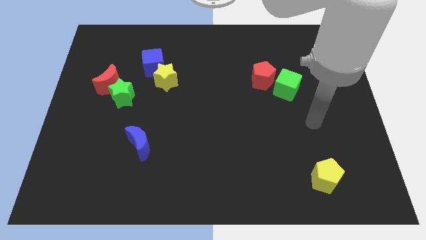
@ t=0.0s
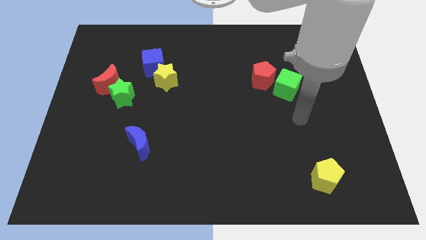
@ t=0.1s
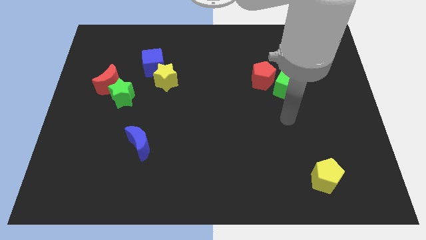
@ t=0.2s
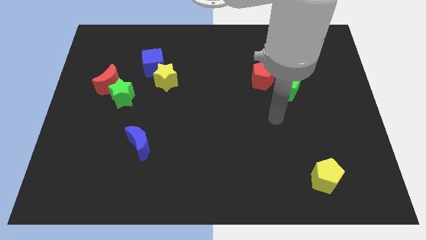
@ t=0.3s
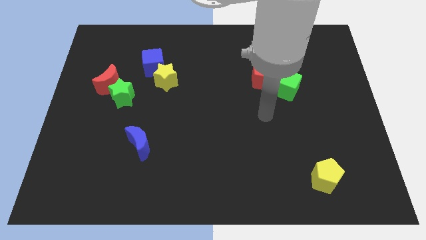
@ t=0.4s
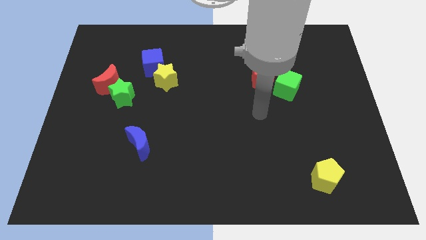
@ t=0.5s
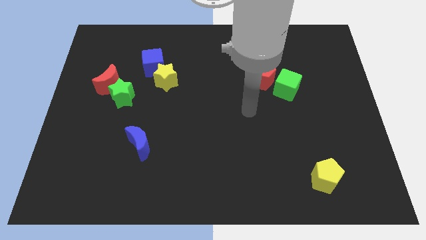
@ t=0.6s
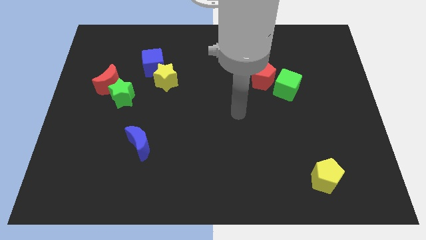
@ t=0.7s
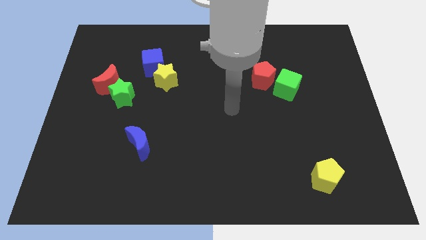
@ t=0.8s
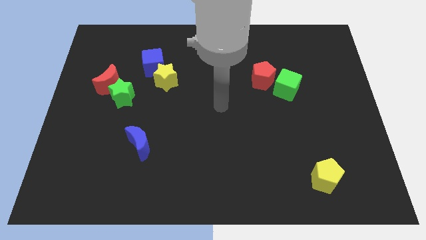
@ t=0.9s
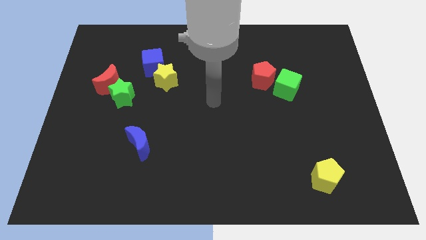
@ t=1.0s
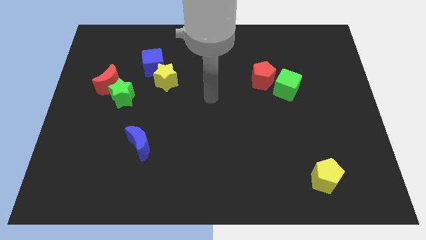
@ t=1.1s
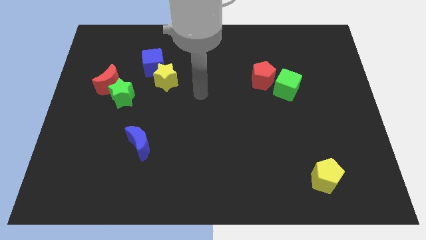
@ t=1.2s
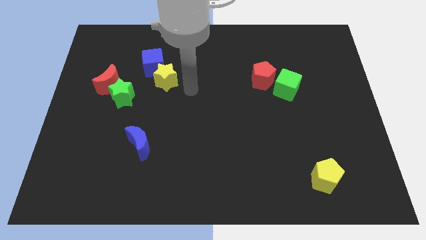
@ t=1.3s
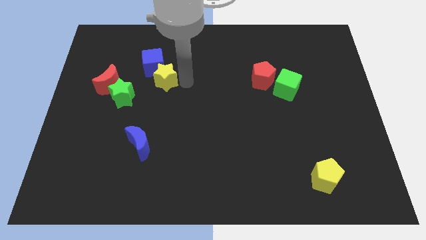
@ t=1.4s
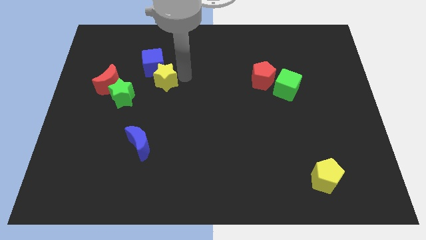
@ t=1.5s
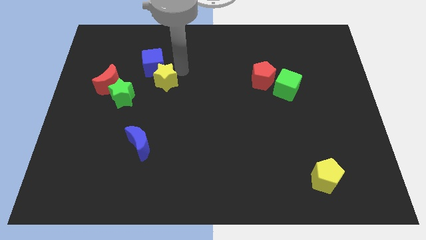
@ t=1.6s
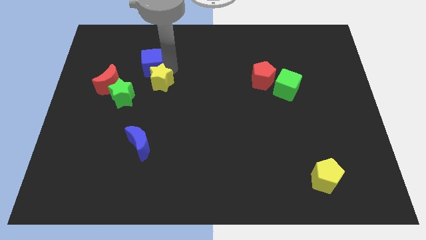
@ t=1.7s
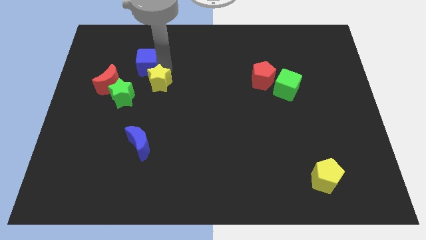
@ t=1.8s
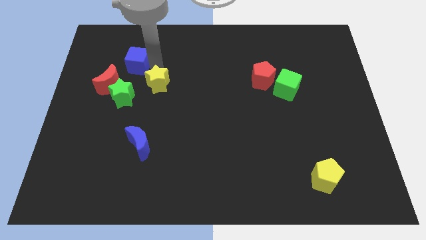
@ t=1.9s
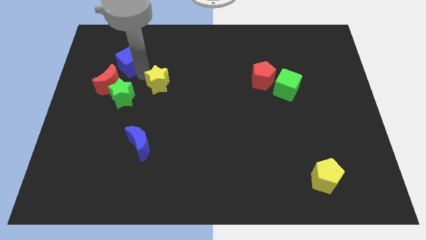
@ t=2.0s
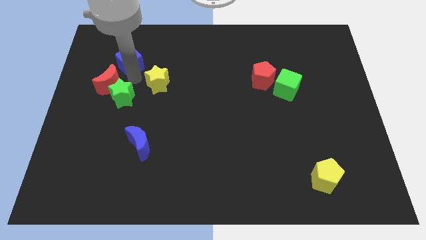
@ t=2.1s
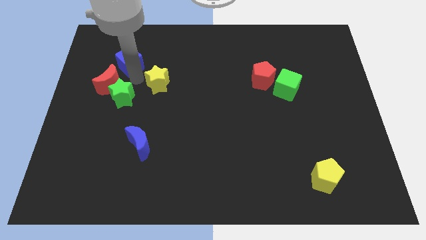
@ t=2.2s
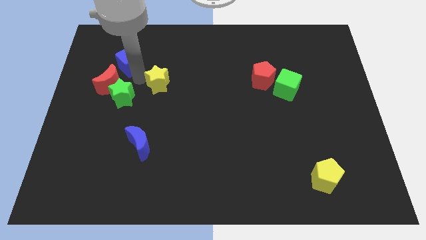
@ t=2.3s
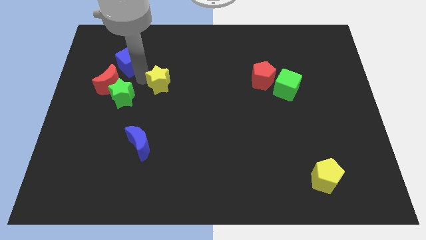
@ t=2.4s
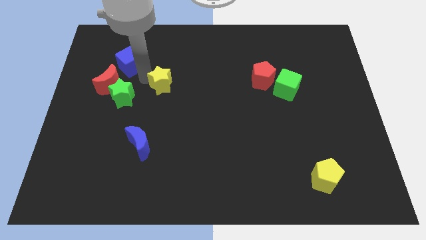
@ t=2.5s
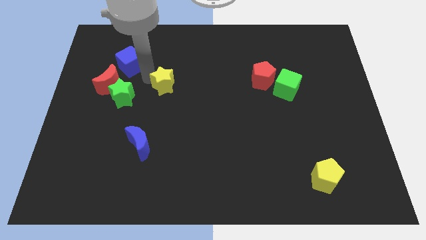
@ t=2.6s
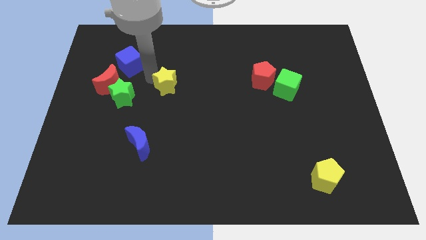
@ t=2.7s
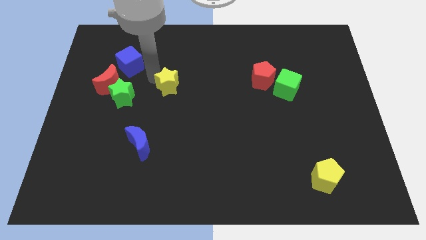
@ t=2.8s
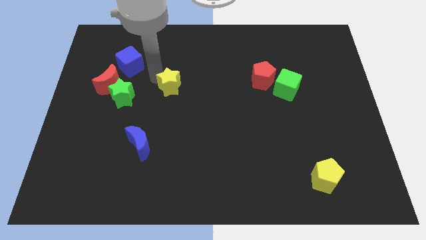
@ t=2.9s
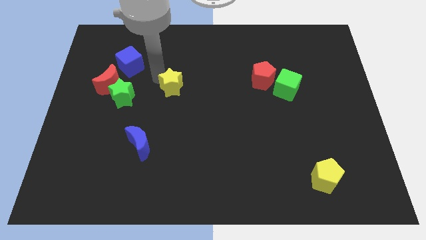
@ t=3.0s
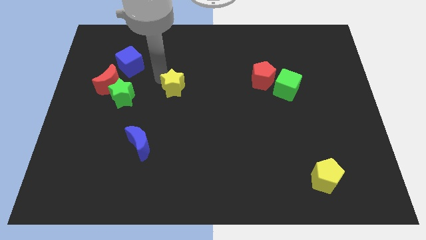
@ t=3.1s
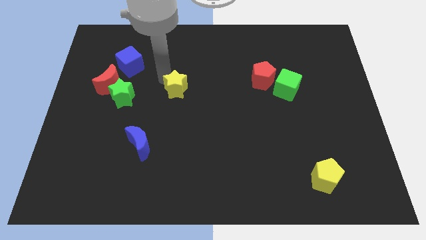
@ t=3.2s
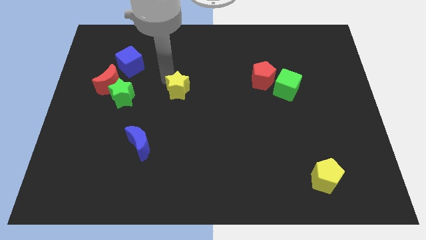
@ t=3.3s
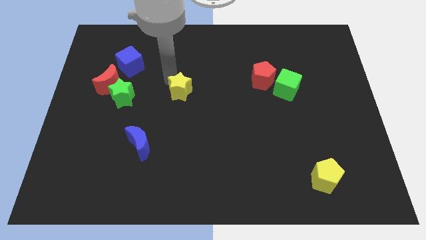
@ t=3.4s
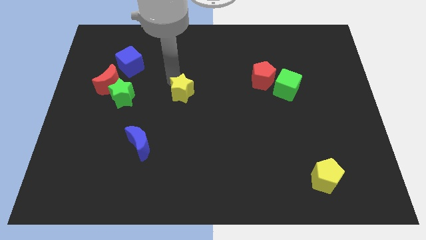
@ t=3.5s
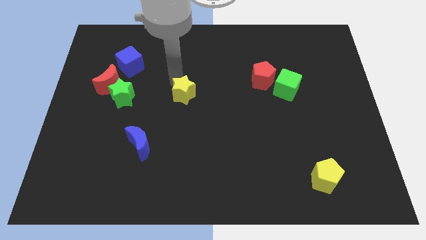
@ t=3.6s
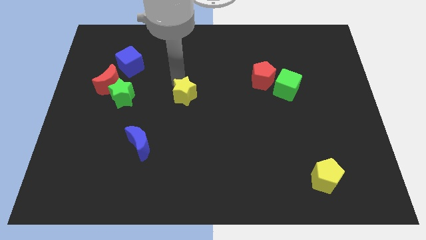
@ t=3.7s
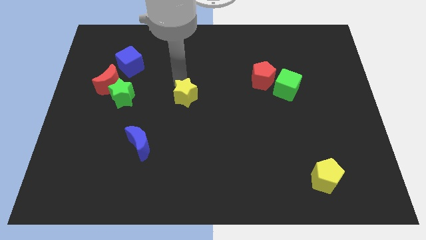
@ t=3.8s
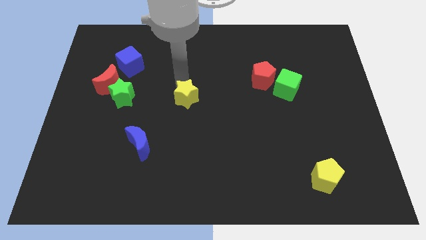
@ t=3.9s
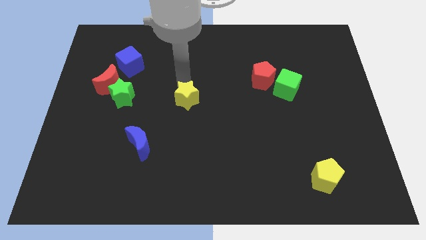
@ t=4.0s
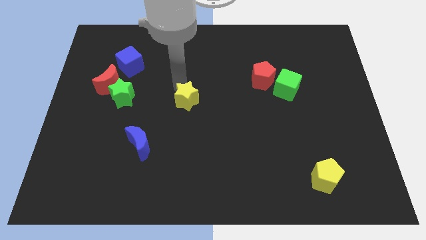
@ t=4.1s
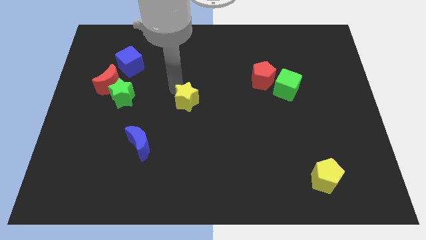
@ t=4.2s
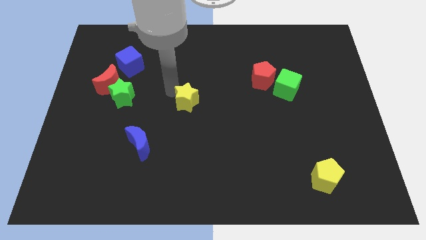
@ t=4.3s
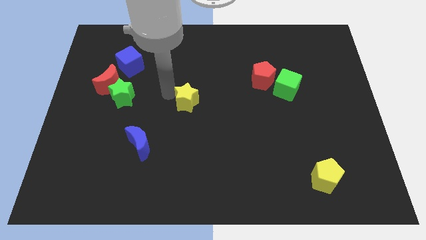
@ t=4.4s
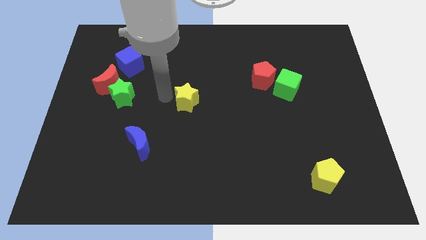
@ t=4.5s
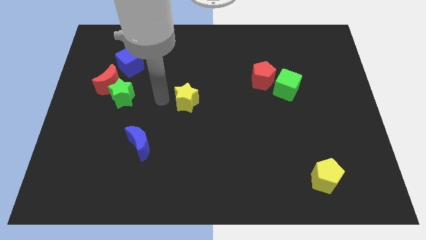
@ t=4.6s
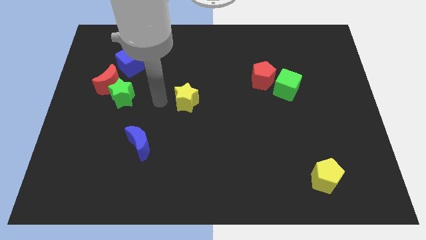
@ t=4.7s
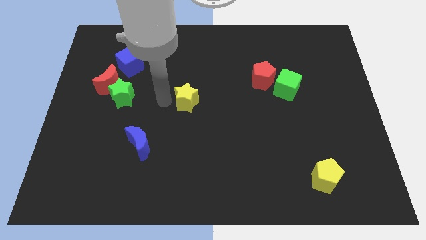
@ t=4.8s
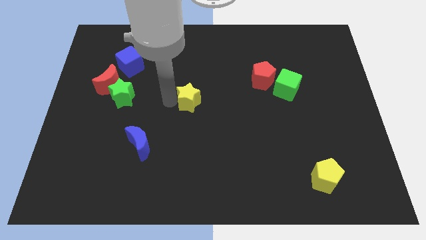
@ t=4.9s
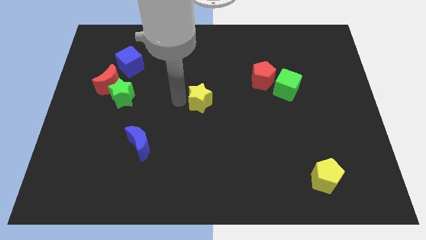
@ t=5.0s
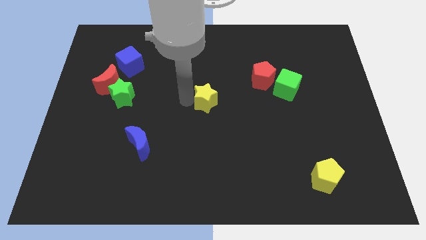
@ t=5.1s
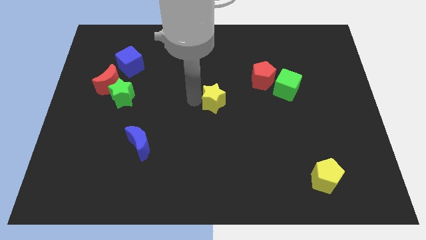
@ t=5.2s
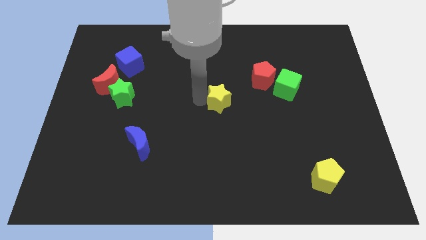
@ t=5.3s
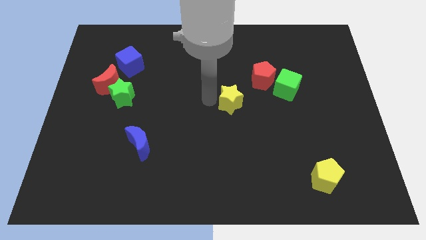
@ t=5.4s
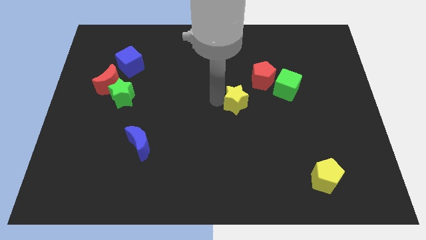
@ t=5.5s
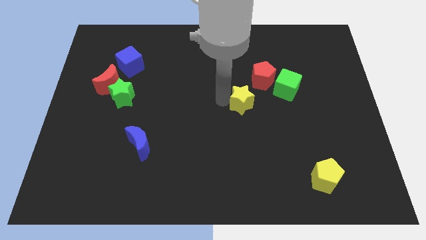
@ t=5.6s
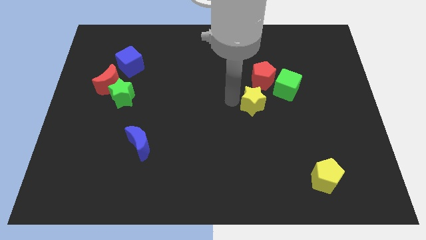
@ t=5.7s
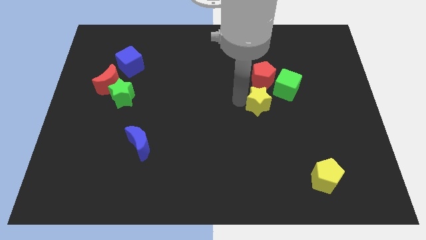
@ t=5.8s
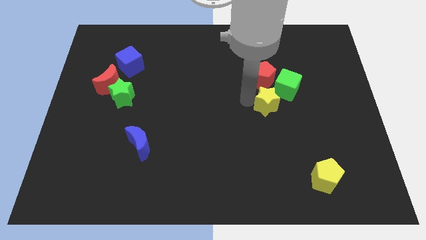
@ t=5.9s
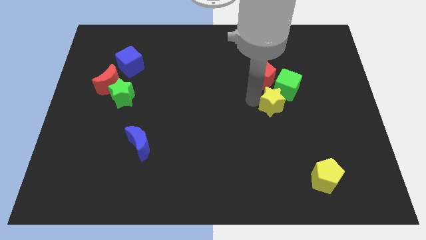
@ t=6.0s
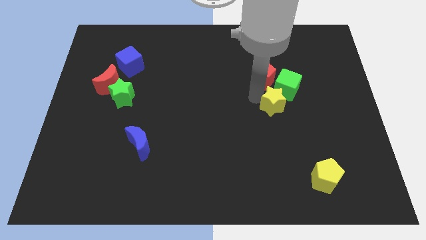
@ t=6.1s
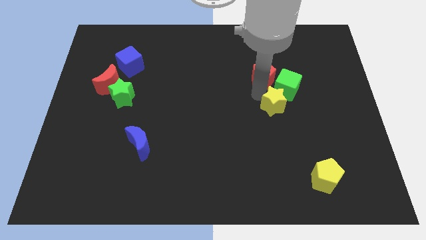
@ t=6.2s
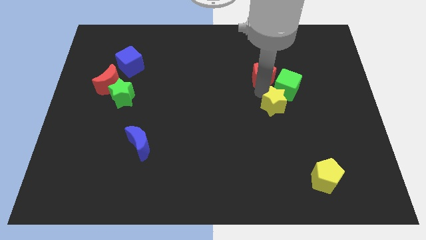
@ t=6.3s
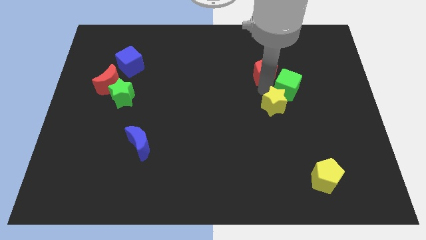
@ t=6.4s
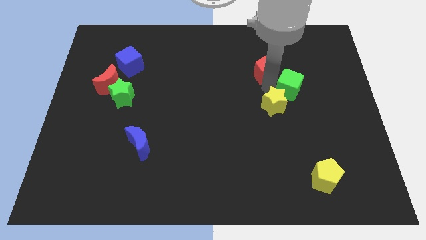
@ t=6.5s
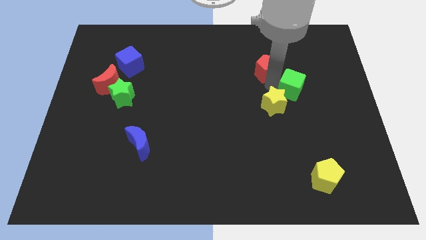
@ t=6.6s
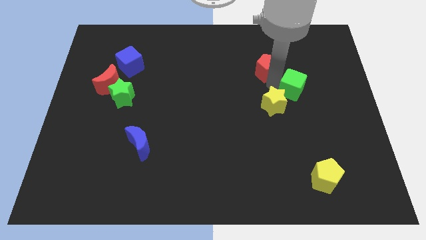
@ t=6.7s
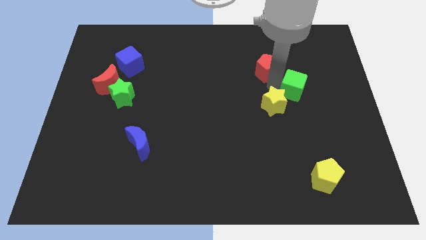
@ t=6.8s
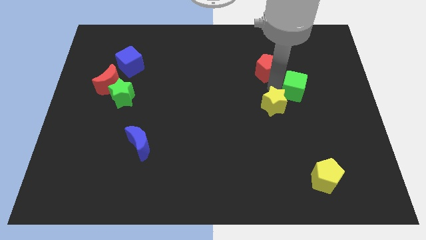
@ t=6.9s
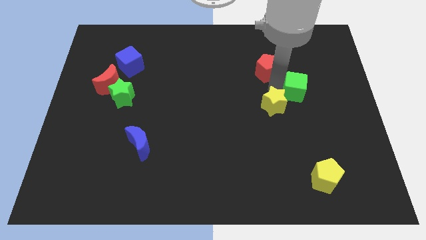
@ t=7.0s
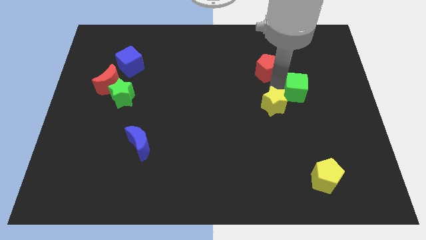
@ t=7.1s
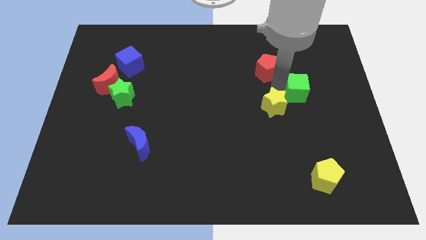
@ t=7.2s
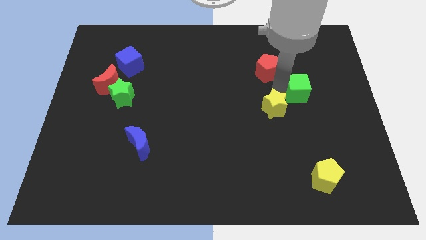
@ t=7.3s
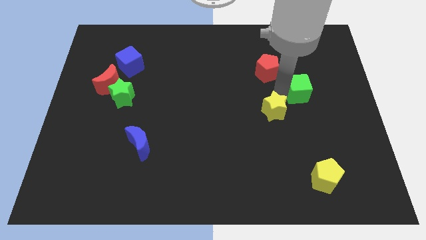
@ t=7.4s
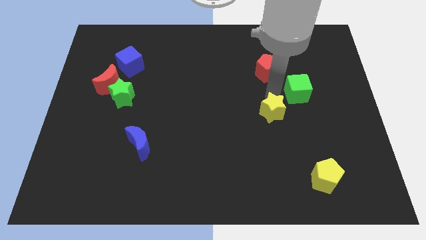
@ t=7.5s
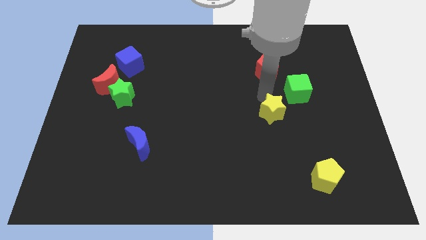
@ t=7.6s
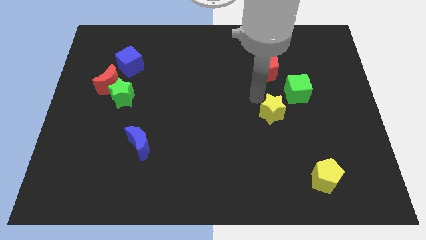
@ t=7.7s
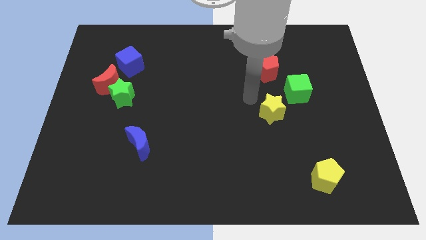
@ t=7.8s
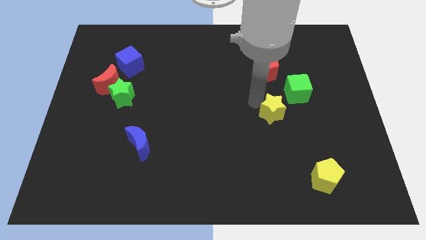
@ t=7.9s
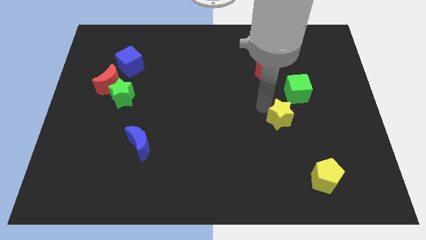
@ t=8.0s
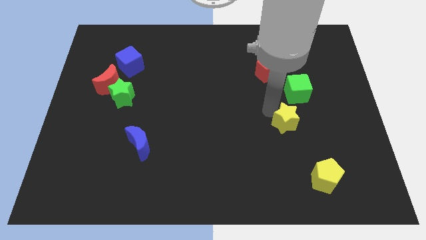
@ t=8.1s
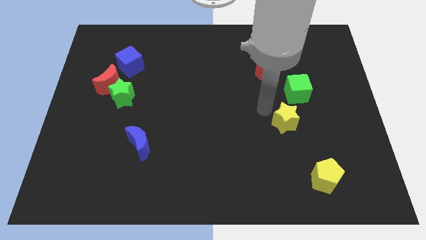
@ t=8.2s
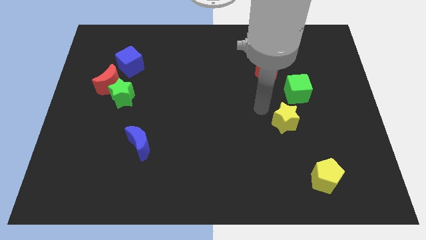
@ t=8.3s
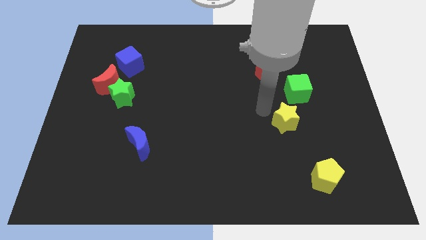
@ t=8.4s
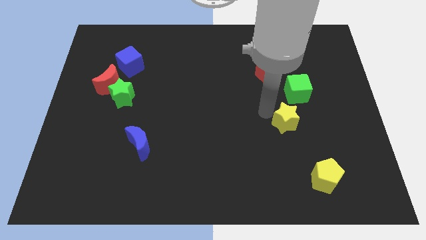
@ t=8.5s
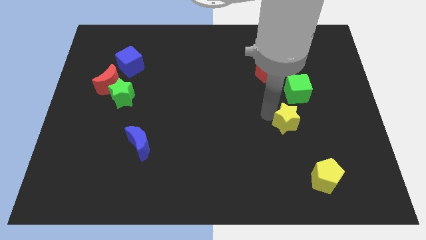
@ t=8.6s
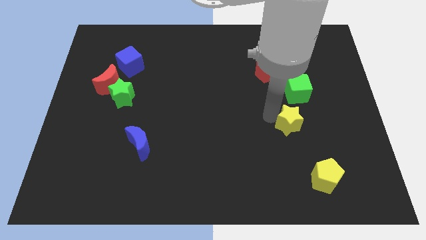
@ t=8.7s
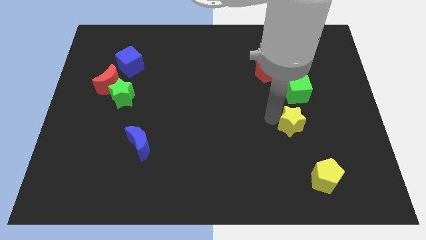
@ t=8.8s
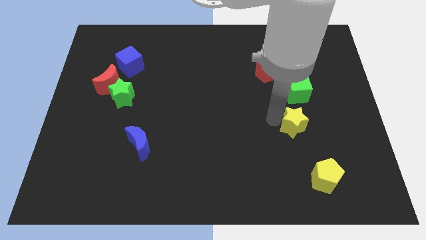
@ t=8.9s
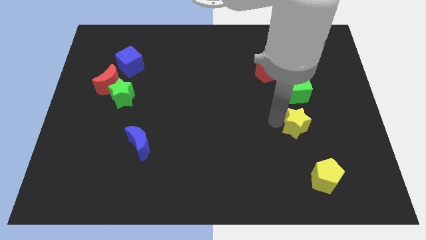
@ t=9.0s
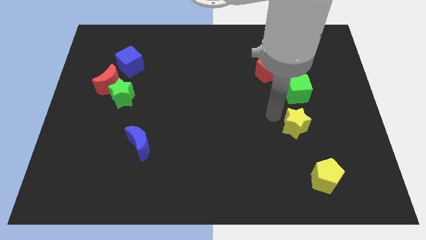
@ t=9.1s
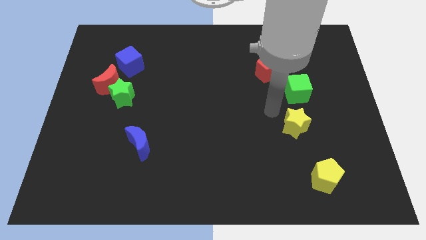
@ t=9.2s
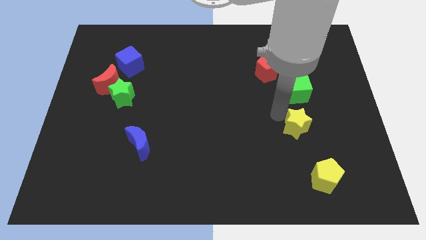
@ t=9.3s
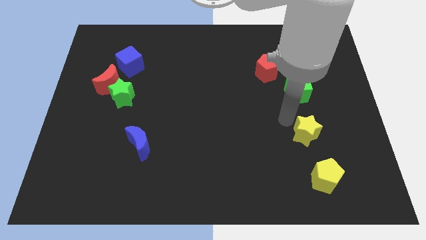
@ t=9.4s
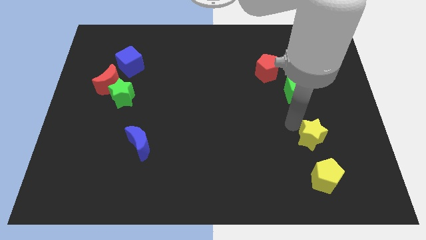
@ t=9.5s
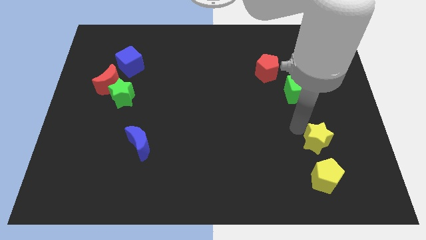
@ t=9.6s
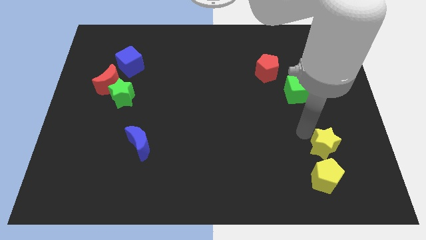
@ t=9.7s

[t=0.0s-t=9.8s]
move the yellow star to the top right side of the yellow pentagon
